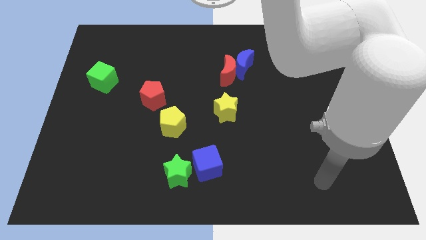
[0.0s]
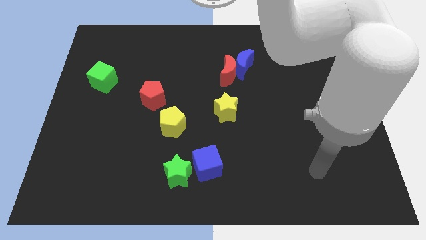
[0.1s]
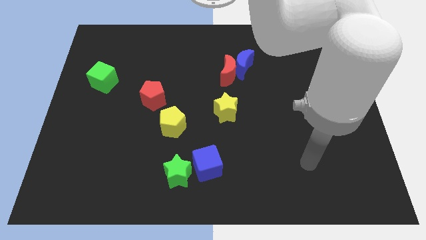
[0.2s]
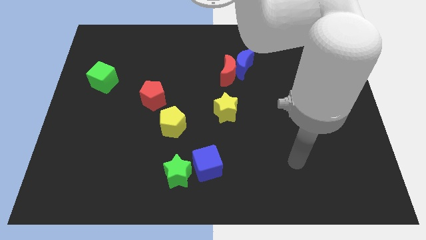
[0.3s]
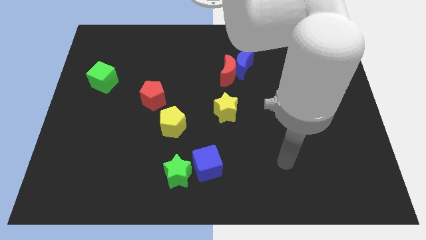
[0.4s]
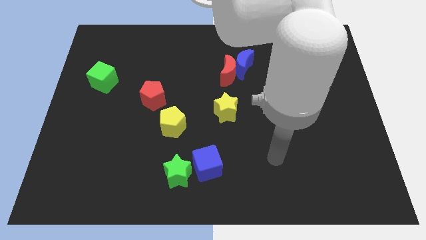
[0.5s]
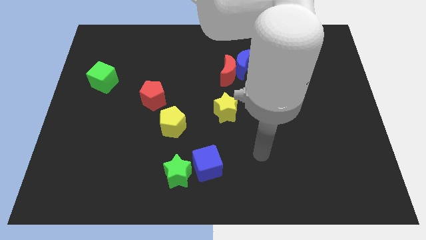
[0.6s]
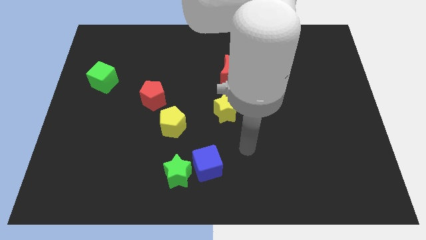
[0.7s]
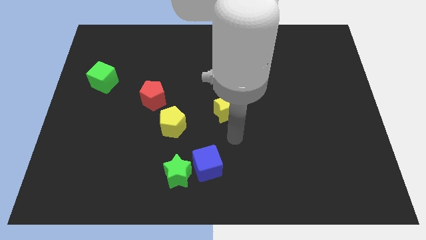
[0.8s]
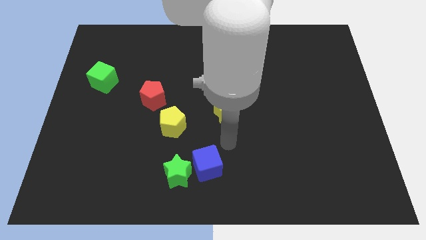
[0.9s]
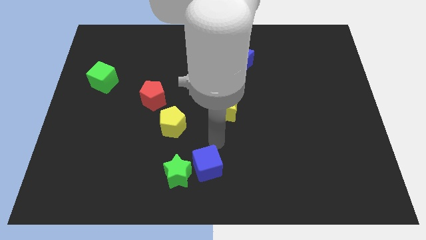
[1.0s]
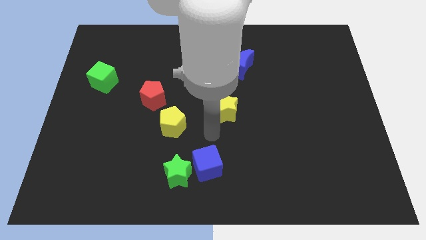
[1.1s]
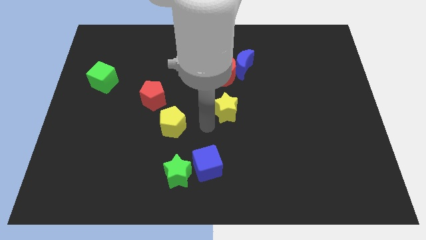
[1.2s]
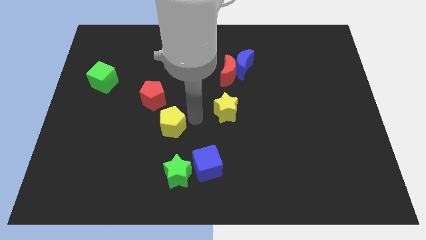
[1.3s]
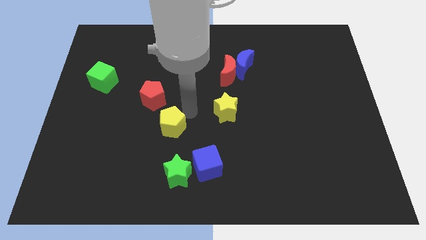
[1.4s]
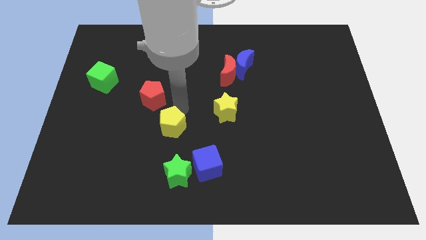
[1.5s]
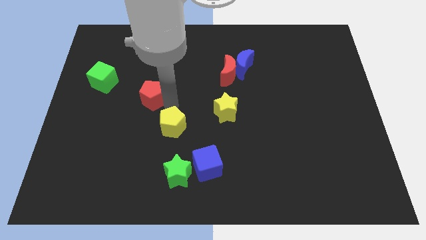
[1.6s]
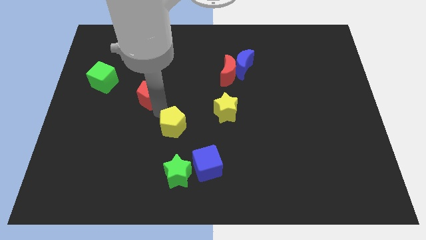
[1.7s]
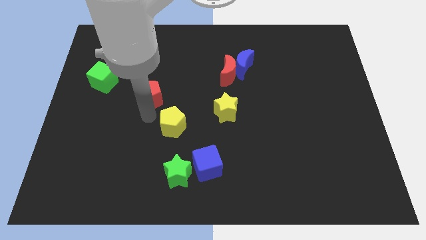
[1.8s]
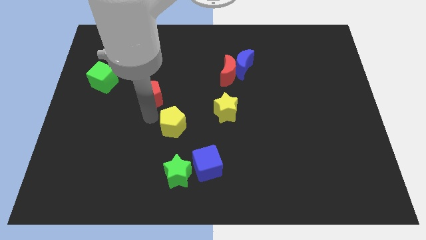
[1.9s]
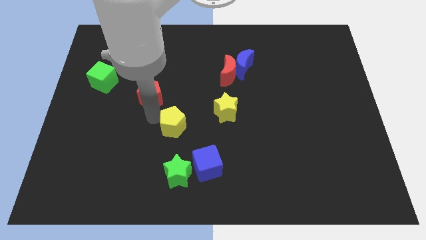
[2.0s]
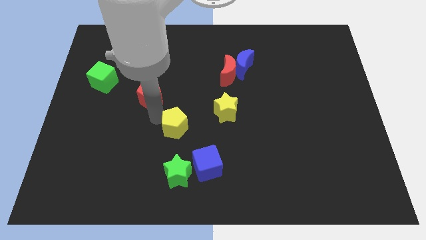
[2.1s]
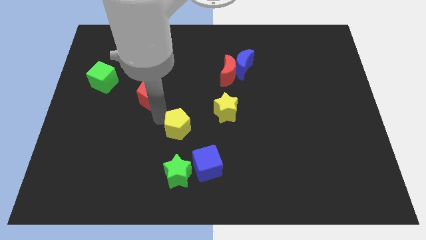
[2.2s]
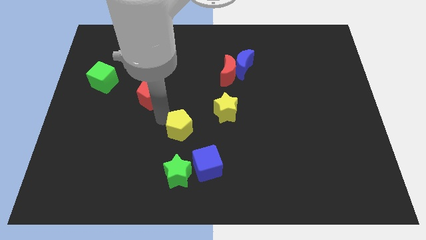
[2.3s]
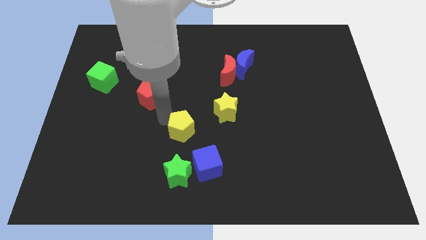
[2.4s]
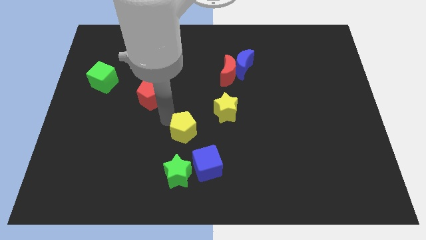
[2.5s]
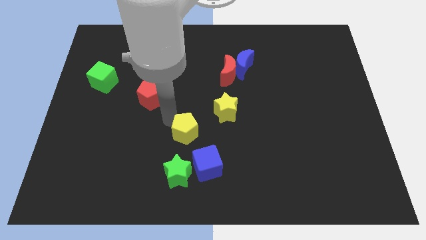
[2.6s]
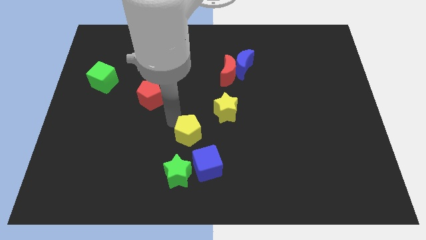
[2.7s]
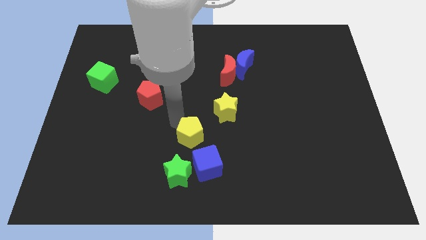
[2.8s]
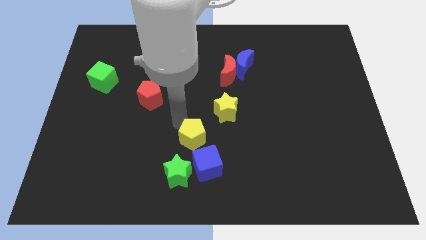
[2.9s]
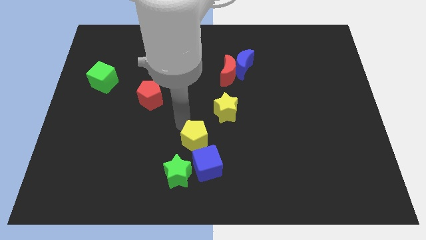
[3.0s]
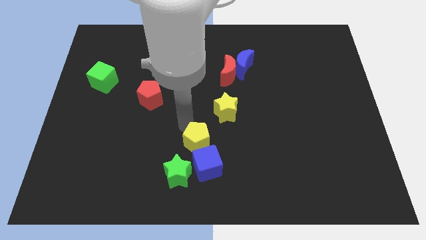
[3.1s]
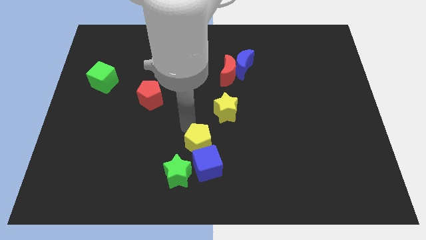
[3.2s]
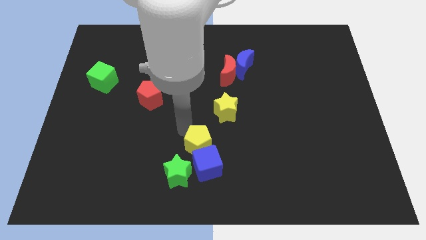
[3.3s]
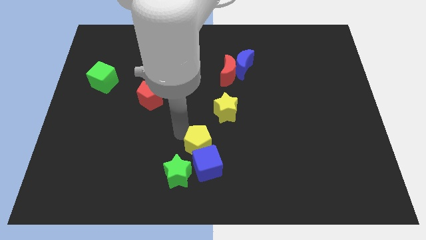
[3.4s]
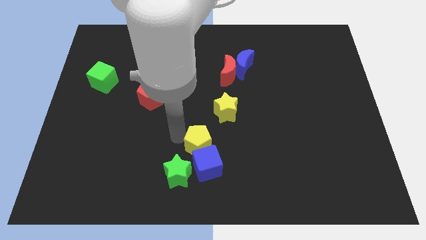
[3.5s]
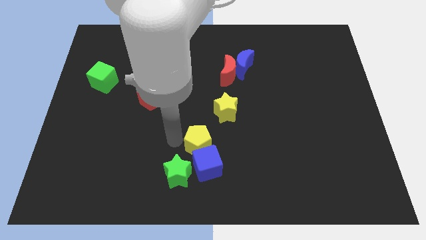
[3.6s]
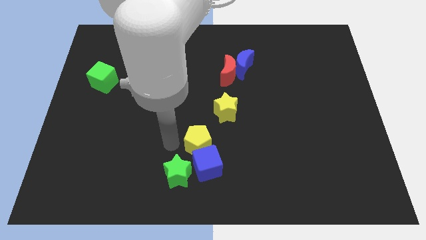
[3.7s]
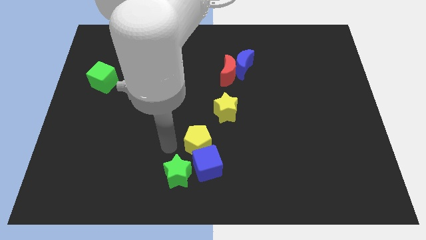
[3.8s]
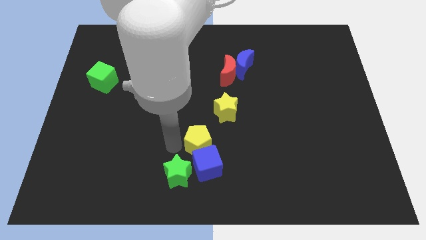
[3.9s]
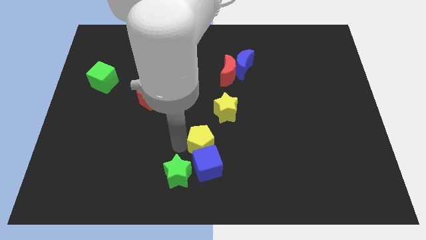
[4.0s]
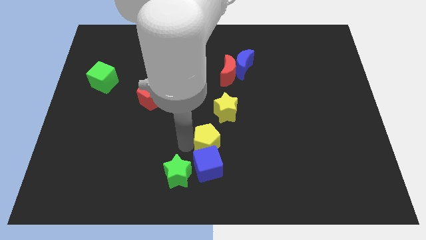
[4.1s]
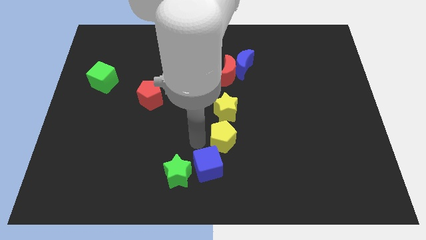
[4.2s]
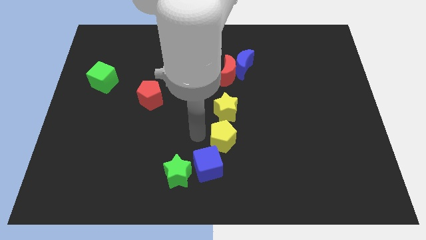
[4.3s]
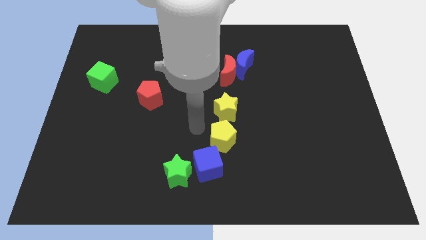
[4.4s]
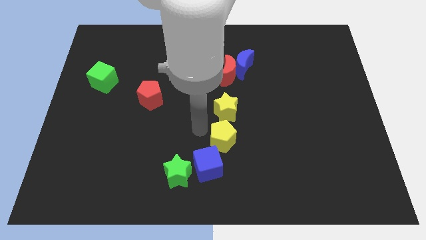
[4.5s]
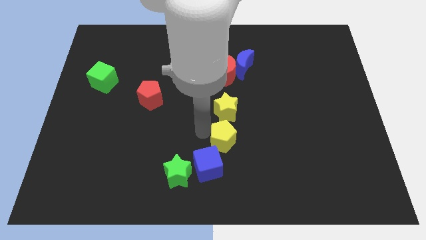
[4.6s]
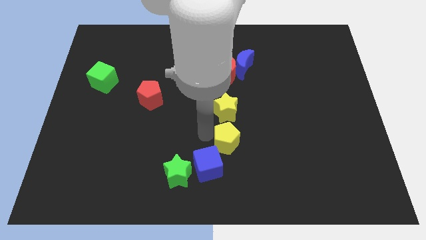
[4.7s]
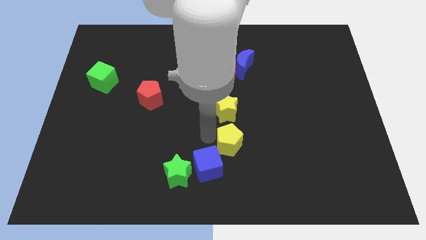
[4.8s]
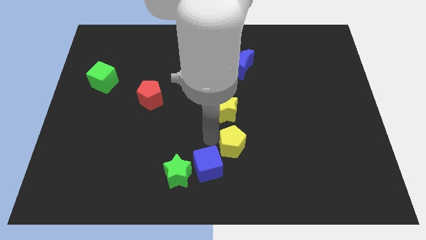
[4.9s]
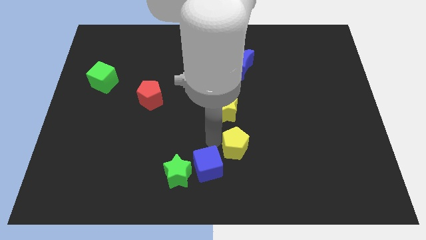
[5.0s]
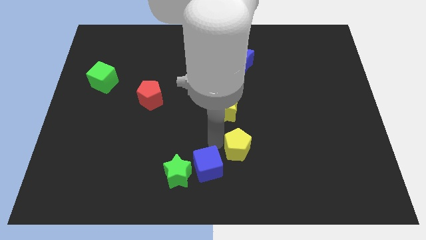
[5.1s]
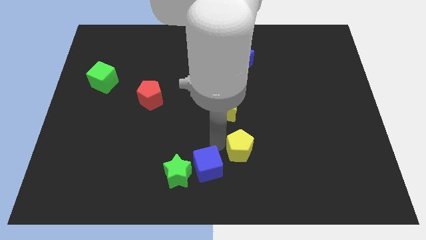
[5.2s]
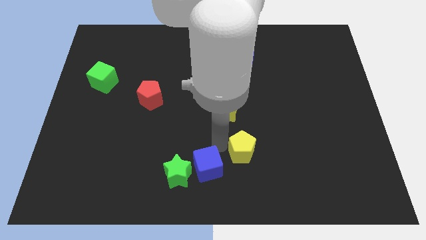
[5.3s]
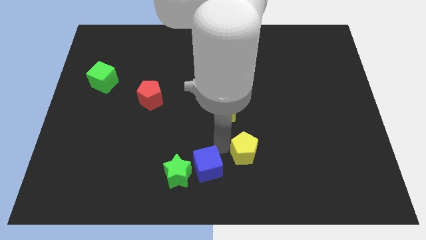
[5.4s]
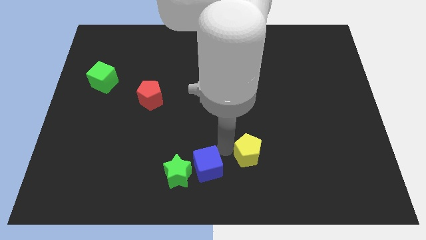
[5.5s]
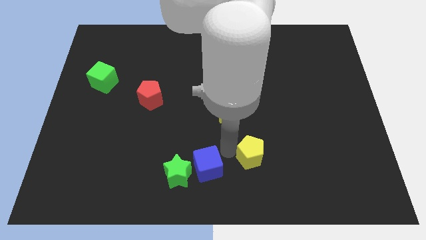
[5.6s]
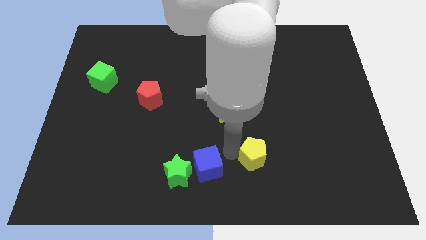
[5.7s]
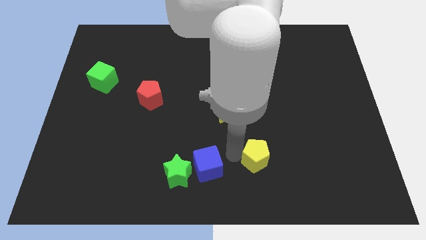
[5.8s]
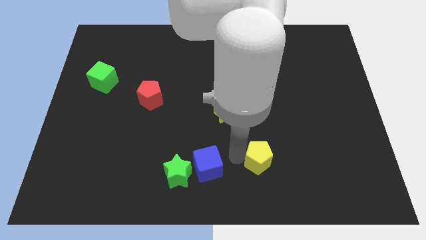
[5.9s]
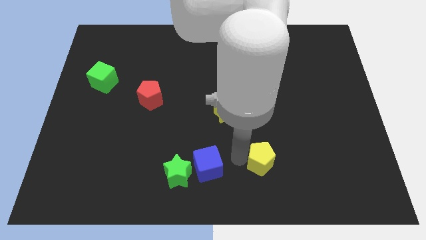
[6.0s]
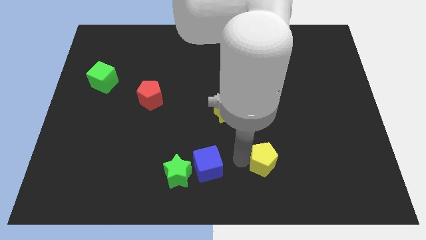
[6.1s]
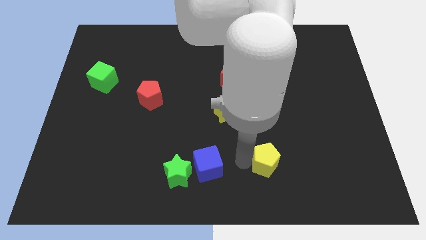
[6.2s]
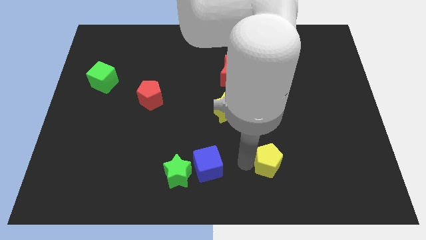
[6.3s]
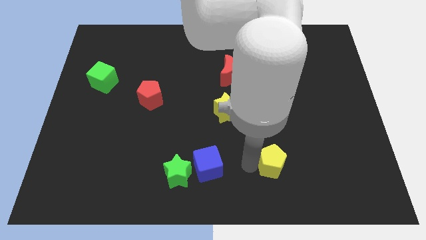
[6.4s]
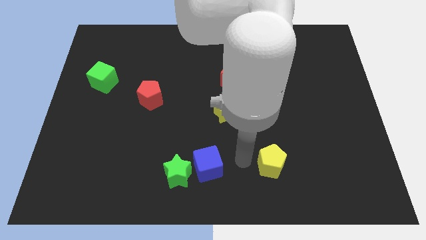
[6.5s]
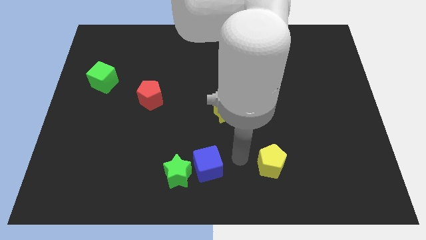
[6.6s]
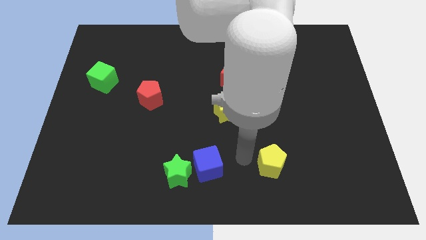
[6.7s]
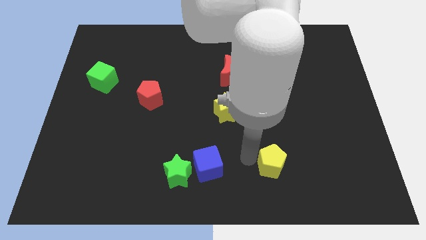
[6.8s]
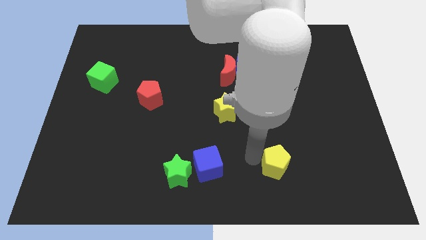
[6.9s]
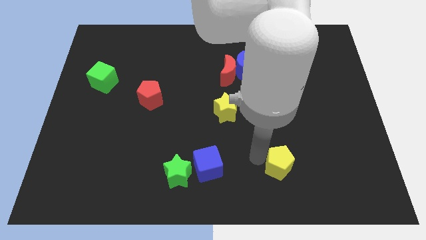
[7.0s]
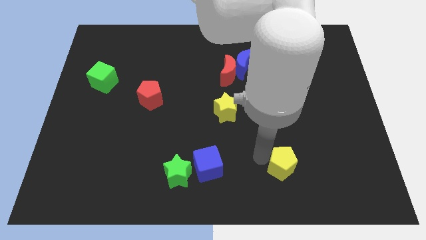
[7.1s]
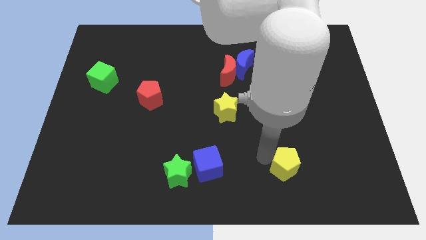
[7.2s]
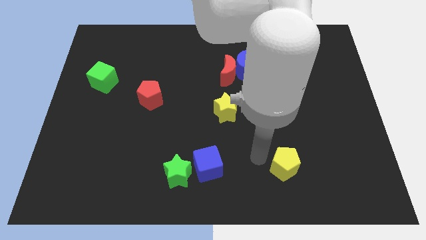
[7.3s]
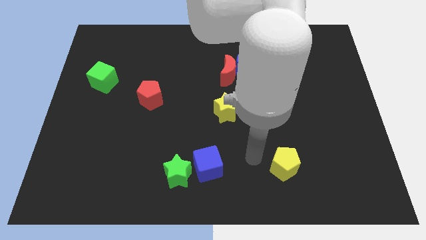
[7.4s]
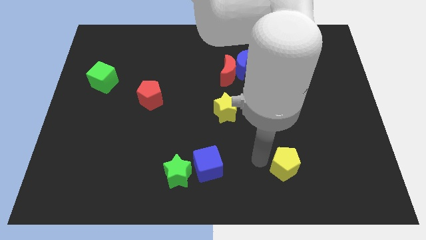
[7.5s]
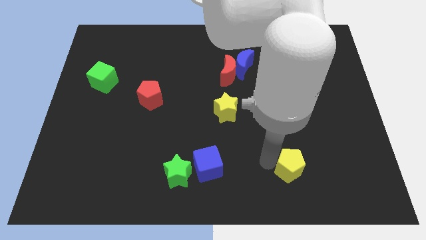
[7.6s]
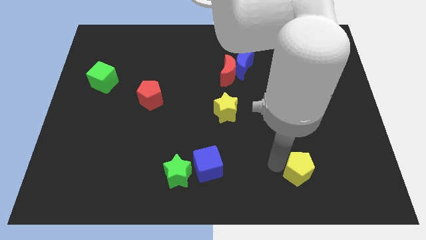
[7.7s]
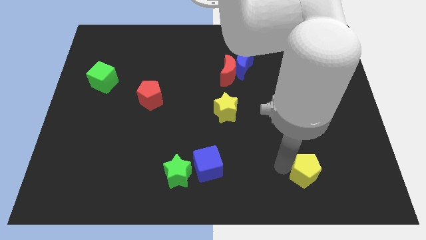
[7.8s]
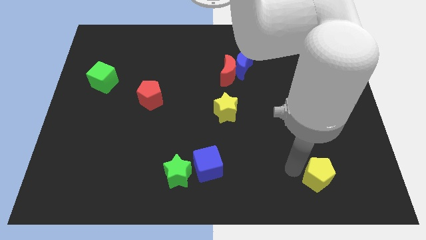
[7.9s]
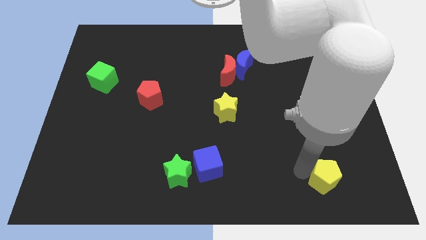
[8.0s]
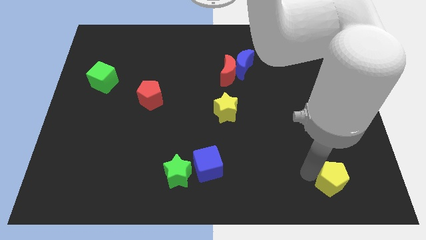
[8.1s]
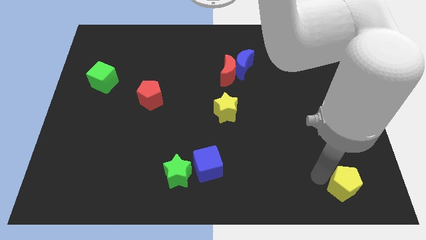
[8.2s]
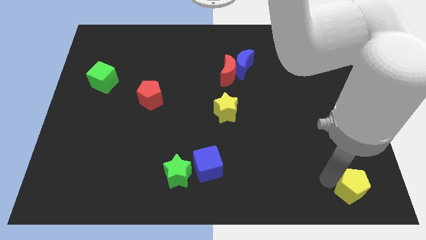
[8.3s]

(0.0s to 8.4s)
put the yellow pentagon to the lower right corner
